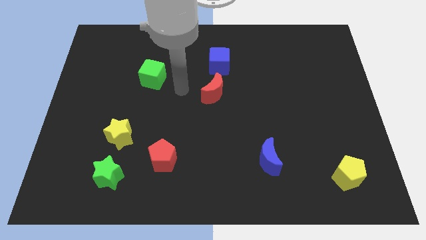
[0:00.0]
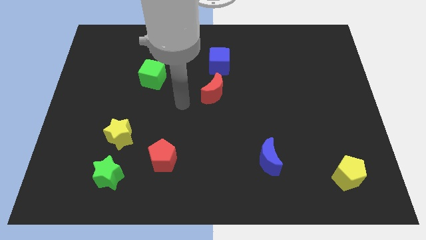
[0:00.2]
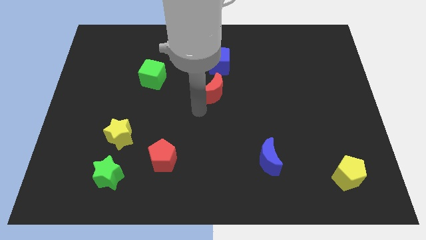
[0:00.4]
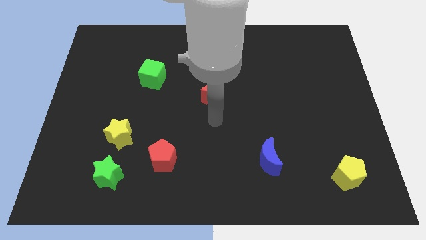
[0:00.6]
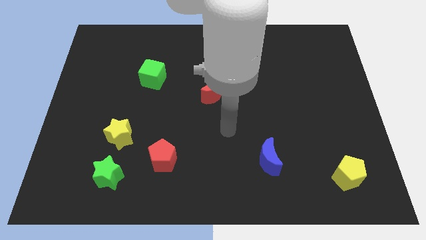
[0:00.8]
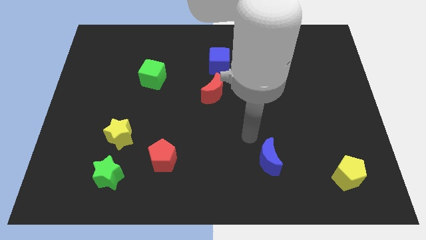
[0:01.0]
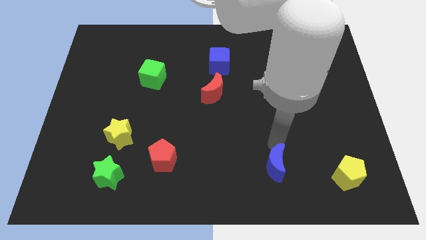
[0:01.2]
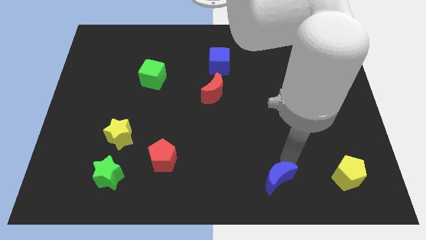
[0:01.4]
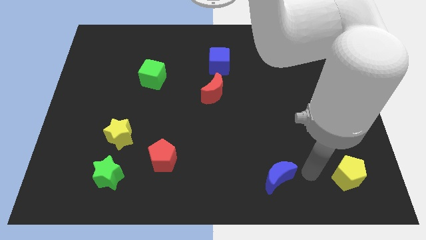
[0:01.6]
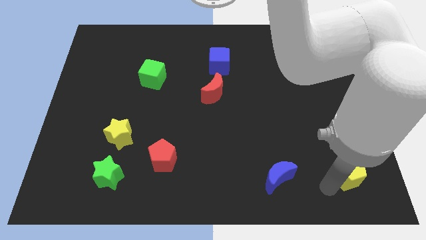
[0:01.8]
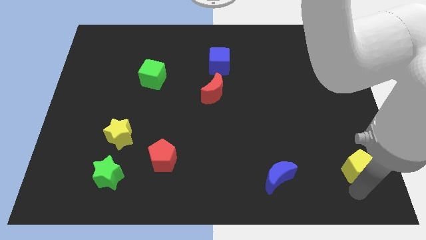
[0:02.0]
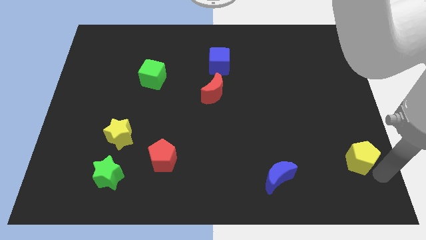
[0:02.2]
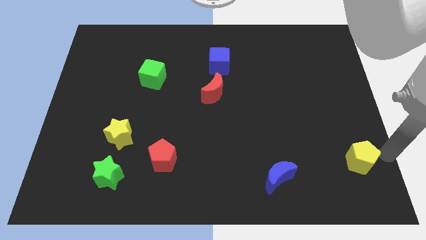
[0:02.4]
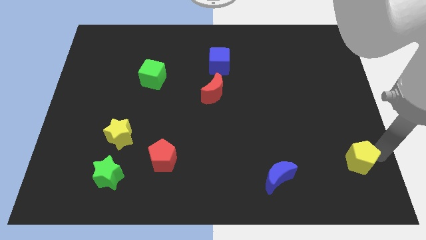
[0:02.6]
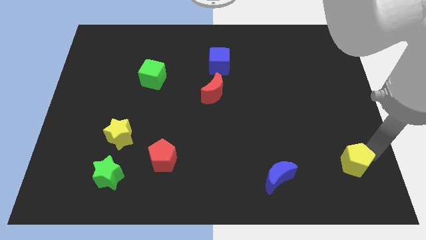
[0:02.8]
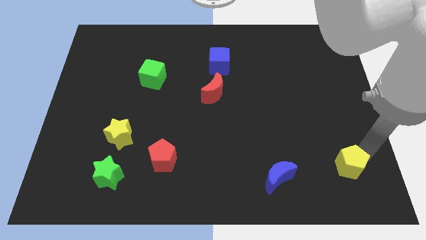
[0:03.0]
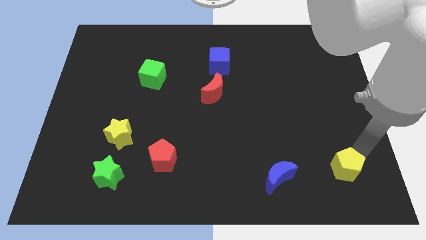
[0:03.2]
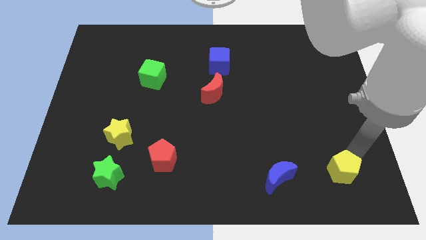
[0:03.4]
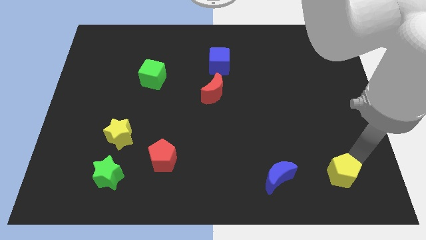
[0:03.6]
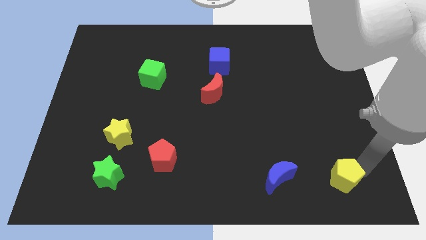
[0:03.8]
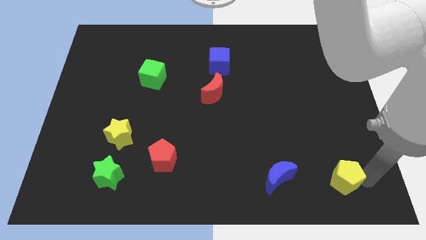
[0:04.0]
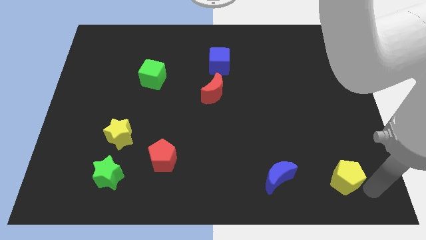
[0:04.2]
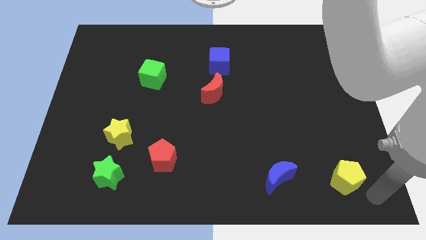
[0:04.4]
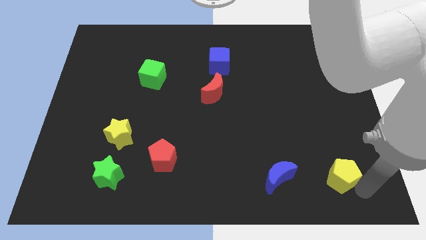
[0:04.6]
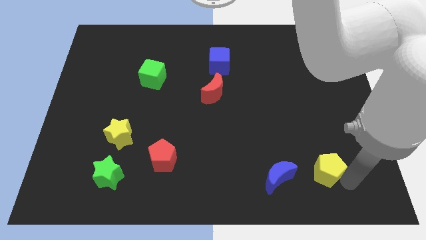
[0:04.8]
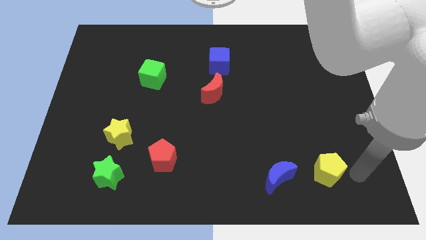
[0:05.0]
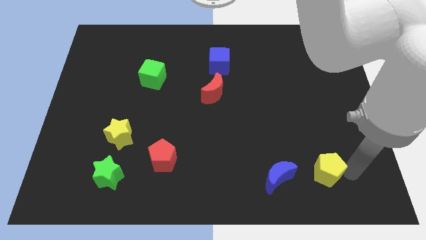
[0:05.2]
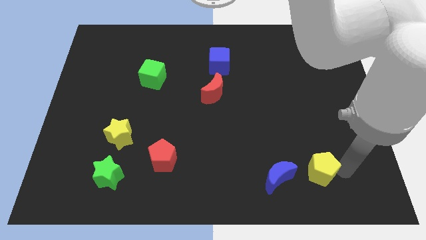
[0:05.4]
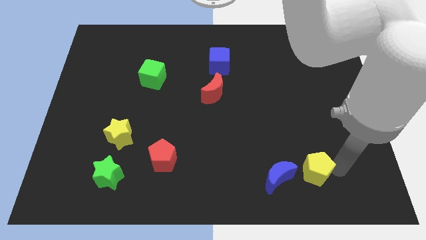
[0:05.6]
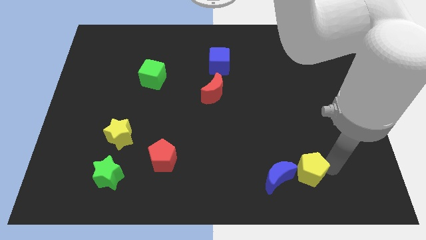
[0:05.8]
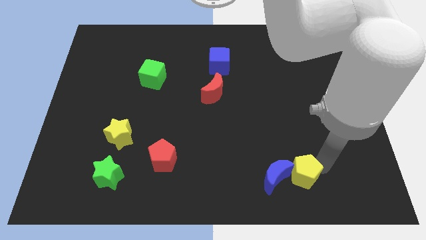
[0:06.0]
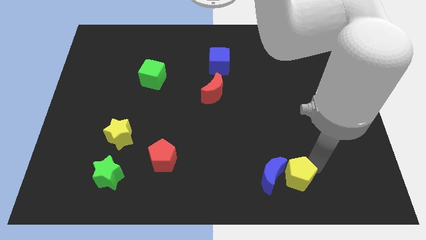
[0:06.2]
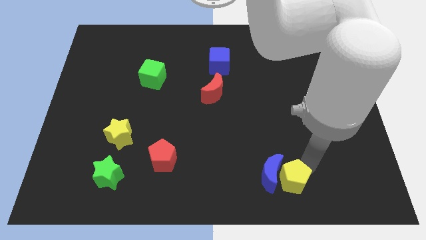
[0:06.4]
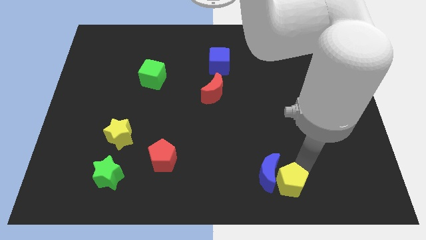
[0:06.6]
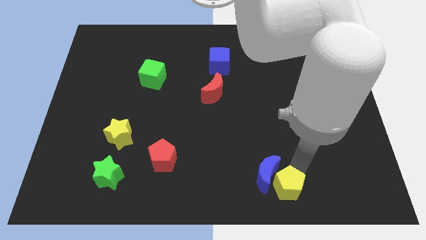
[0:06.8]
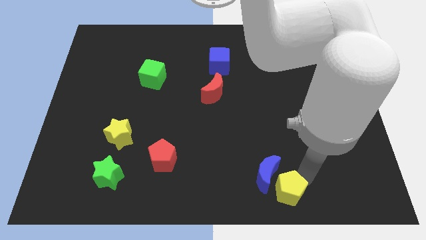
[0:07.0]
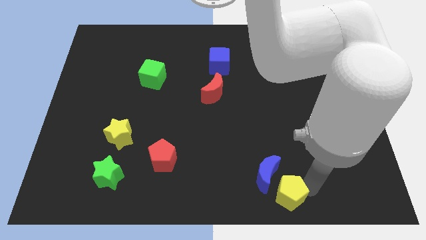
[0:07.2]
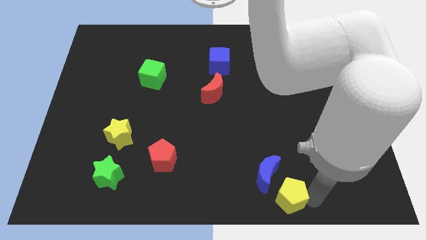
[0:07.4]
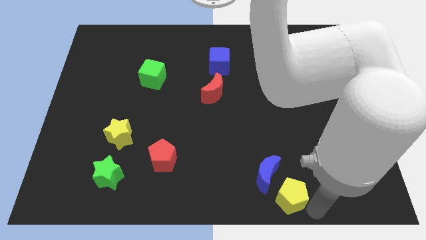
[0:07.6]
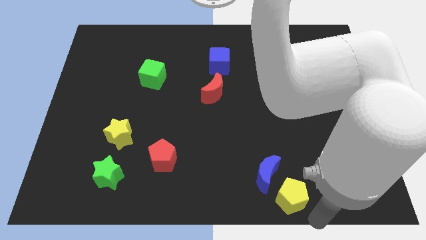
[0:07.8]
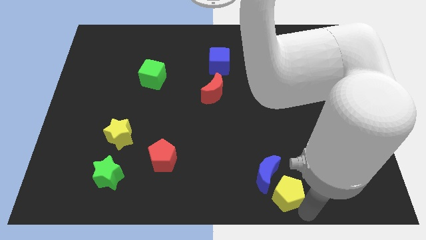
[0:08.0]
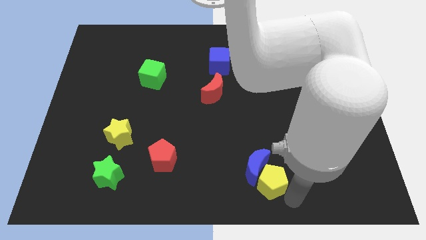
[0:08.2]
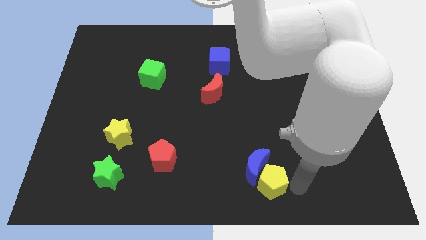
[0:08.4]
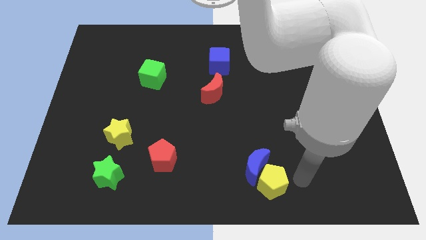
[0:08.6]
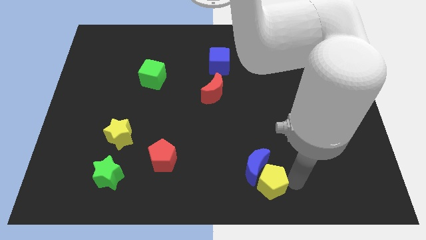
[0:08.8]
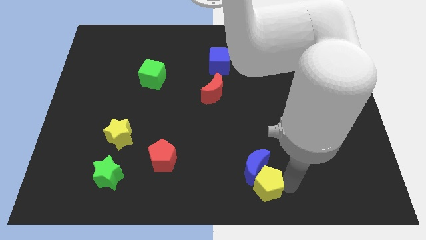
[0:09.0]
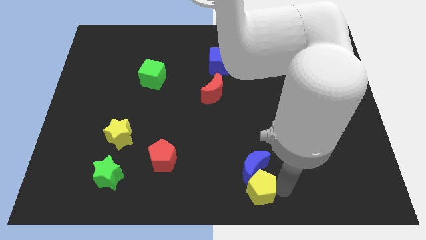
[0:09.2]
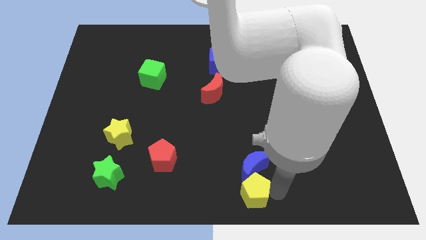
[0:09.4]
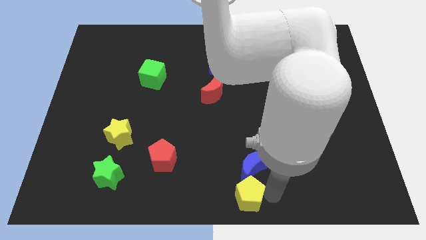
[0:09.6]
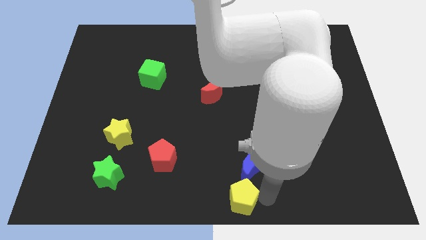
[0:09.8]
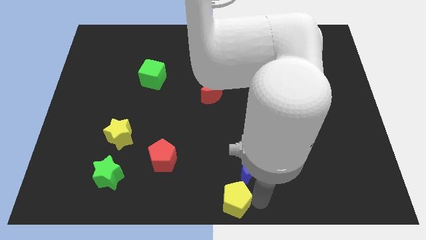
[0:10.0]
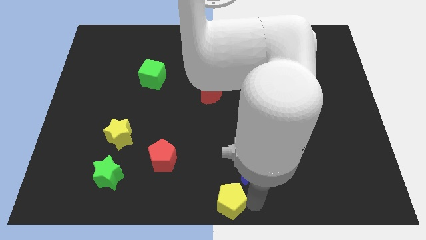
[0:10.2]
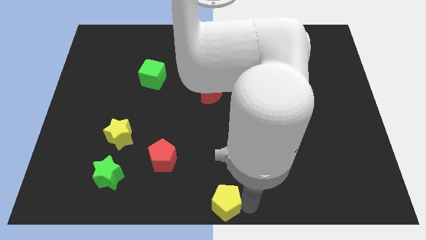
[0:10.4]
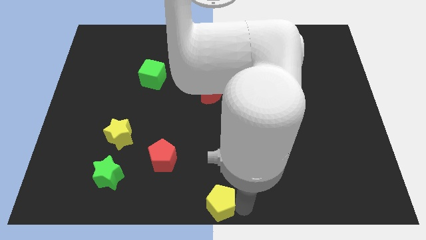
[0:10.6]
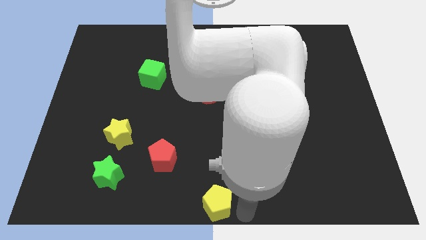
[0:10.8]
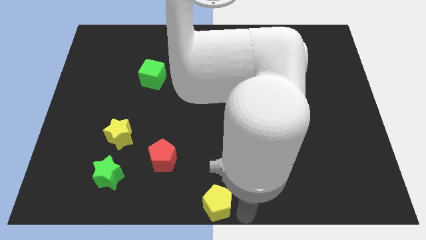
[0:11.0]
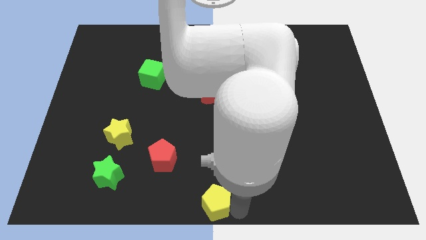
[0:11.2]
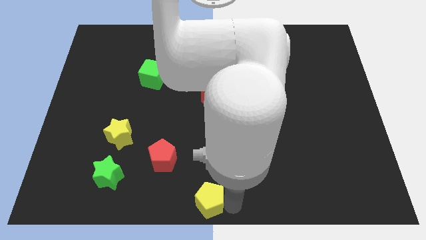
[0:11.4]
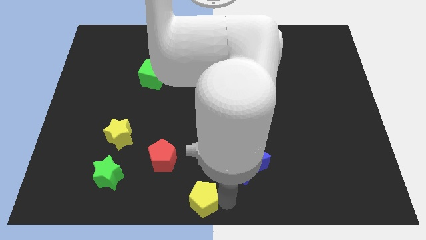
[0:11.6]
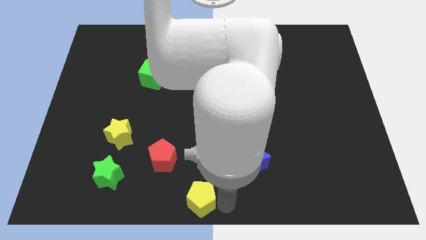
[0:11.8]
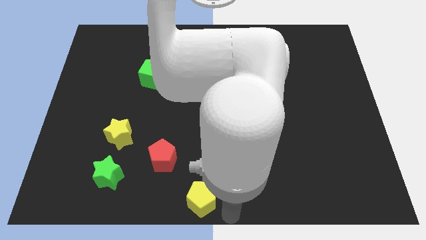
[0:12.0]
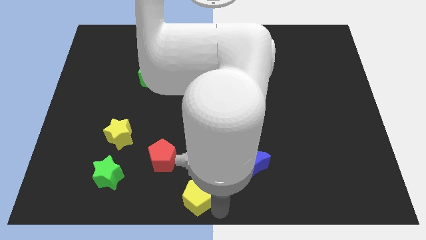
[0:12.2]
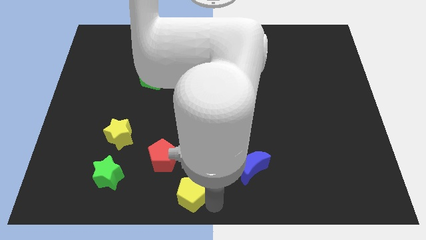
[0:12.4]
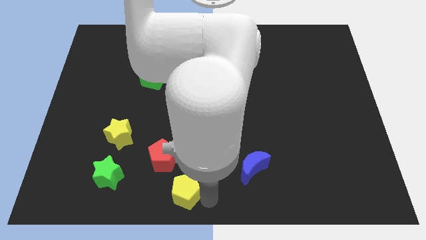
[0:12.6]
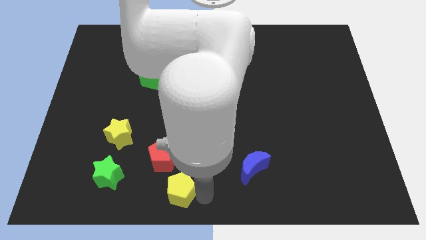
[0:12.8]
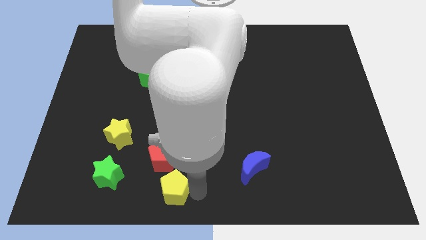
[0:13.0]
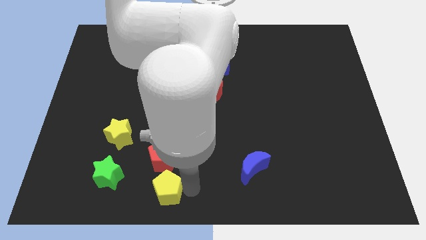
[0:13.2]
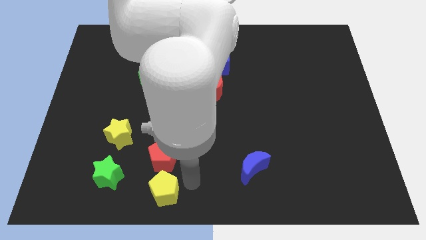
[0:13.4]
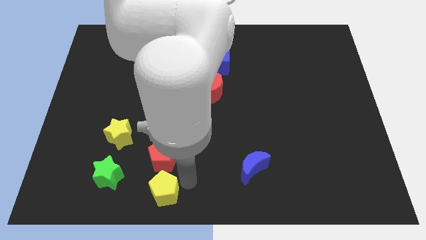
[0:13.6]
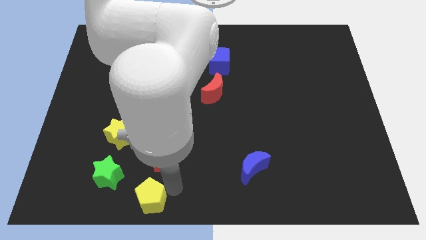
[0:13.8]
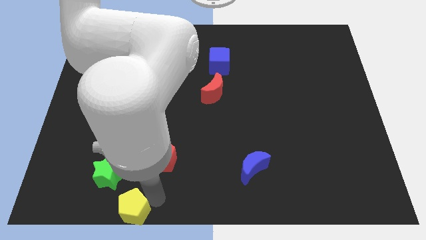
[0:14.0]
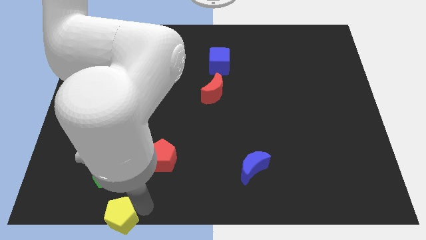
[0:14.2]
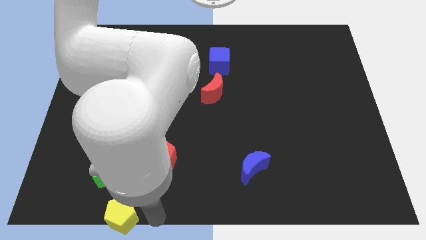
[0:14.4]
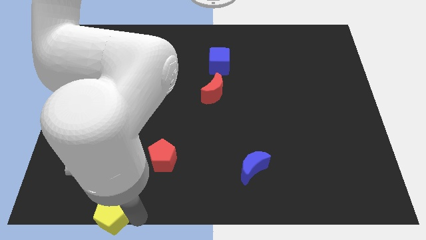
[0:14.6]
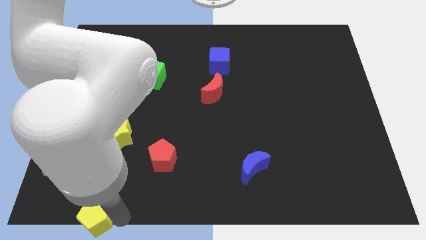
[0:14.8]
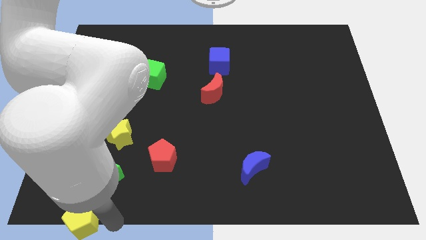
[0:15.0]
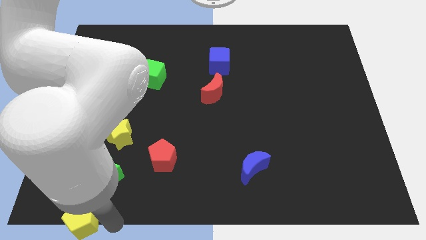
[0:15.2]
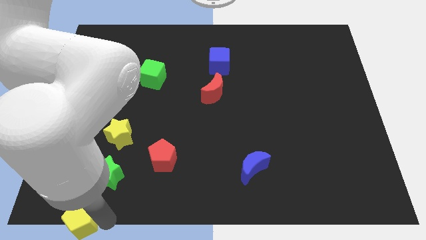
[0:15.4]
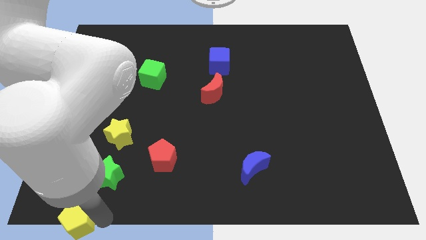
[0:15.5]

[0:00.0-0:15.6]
push the yellow pentagon to the bottom left corner
